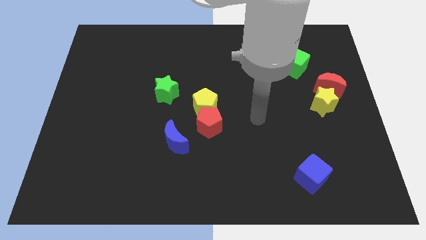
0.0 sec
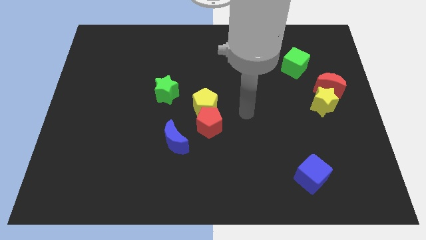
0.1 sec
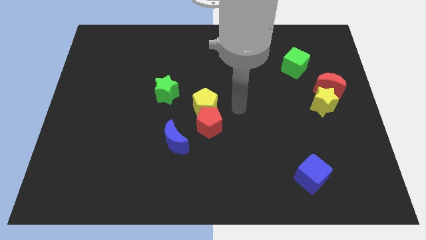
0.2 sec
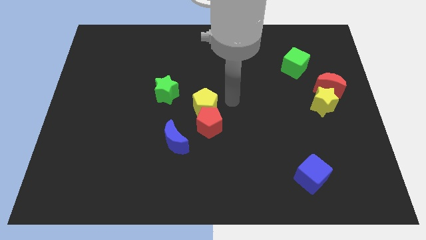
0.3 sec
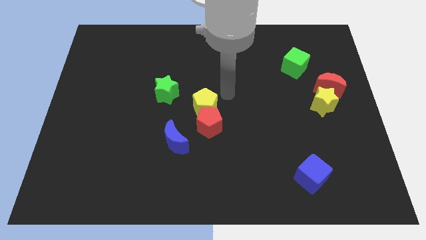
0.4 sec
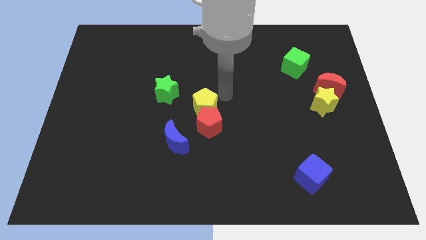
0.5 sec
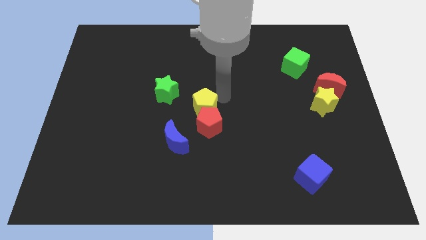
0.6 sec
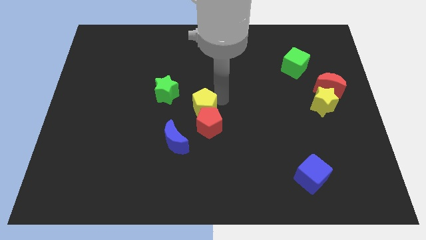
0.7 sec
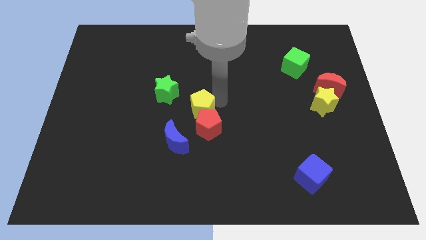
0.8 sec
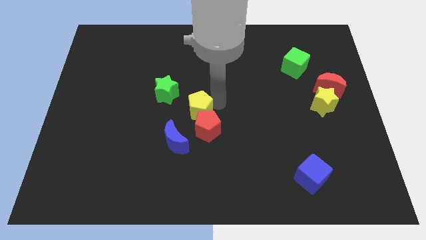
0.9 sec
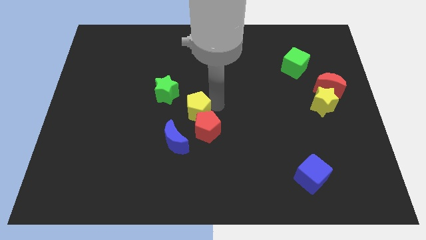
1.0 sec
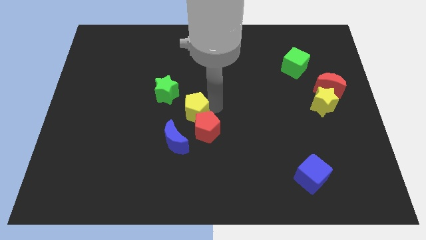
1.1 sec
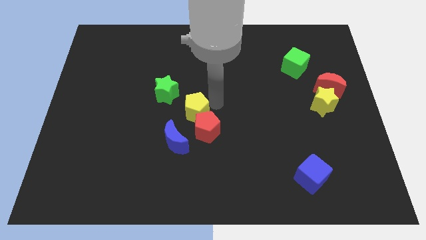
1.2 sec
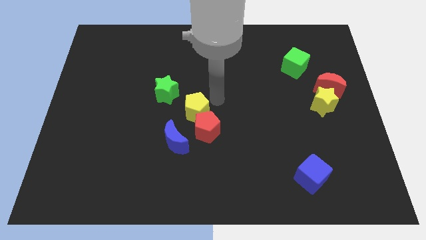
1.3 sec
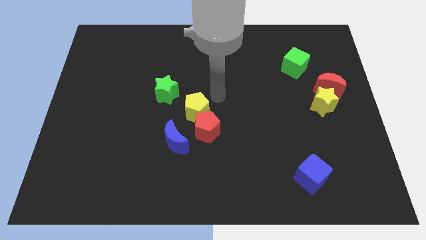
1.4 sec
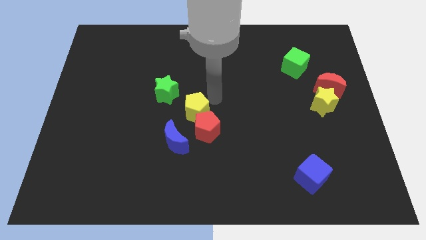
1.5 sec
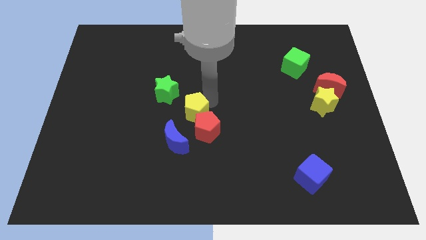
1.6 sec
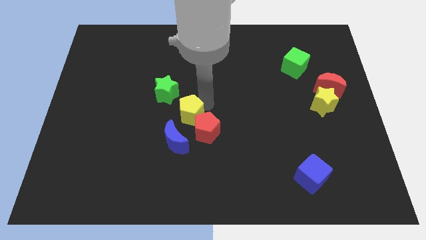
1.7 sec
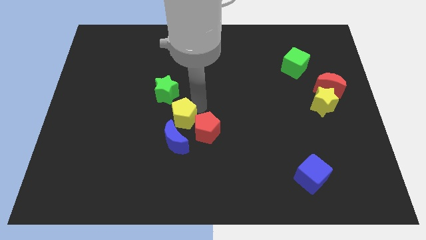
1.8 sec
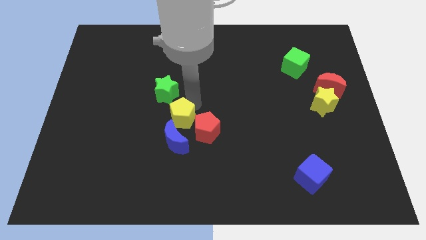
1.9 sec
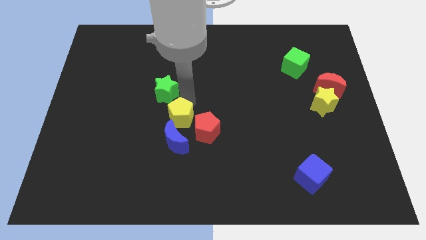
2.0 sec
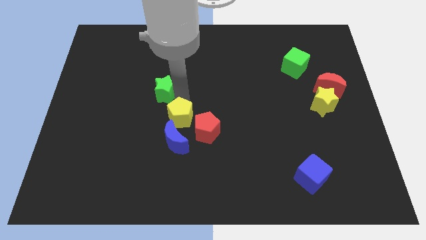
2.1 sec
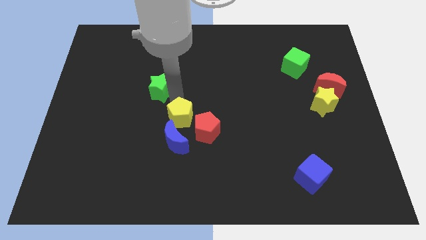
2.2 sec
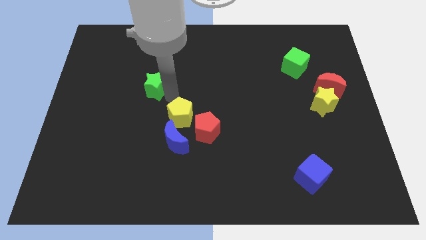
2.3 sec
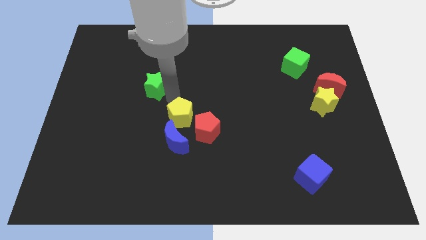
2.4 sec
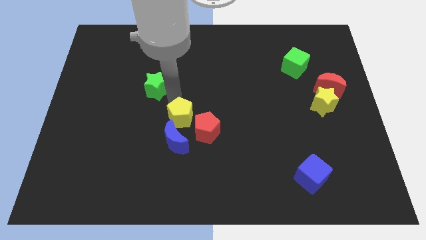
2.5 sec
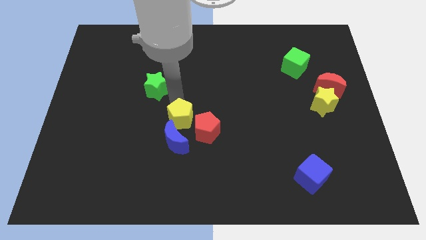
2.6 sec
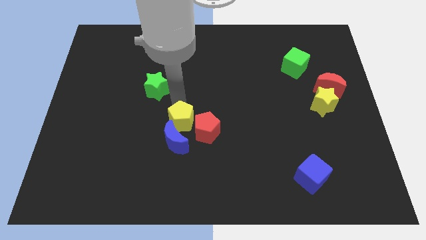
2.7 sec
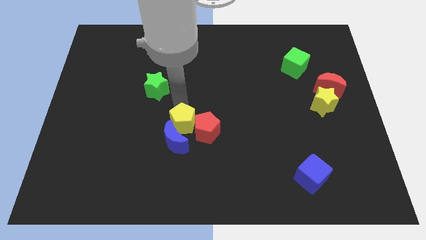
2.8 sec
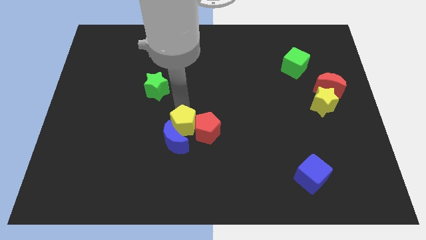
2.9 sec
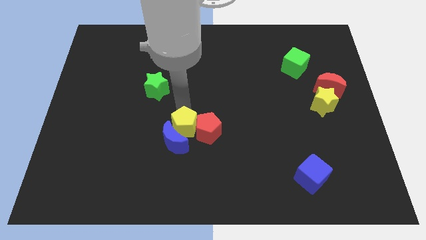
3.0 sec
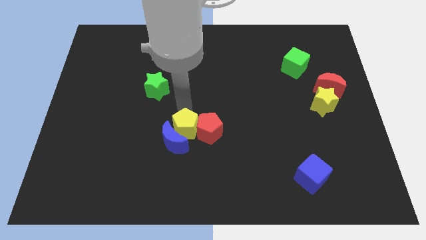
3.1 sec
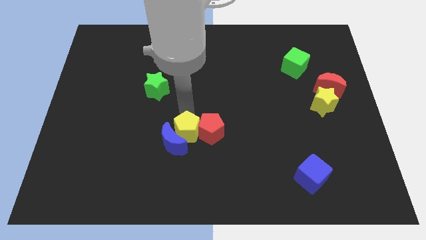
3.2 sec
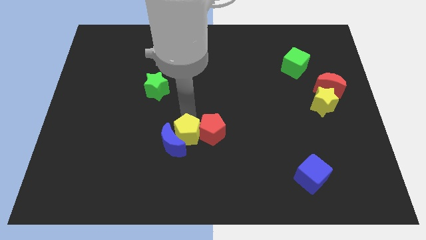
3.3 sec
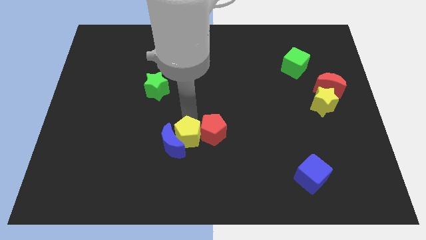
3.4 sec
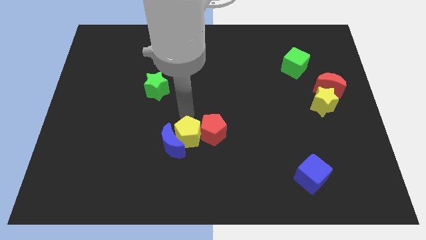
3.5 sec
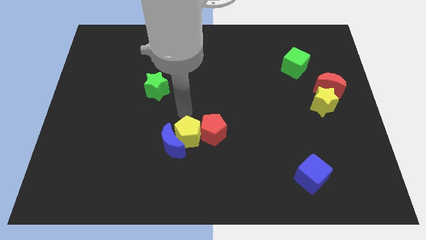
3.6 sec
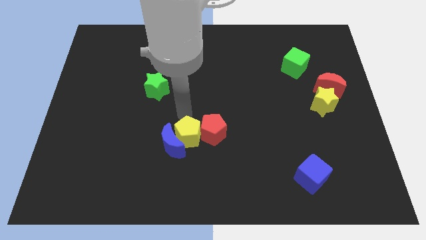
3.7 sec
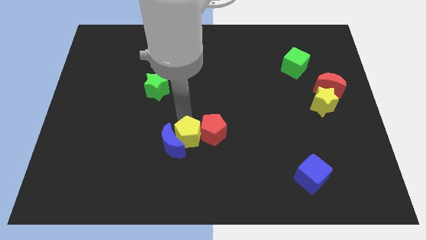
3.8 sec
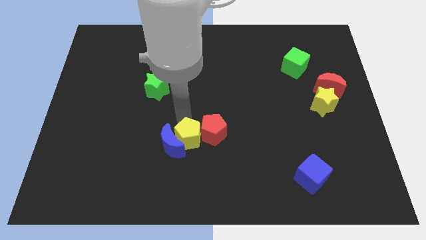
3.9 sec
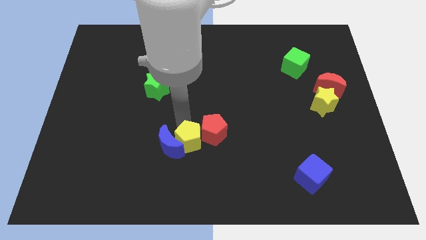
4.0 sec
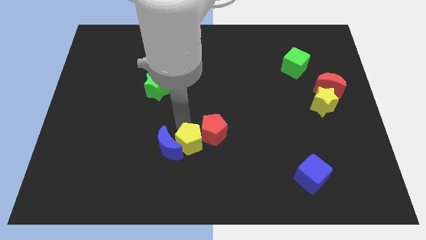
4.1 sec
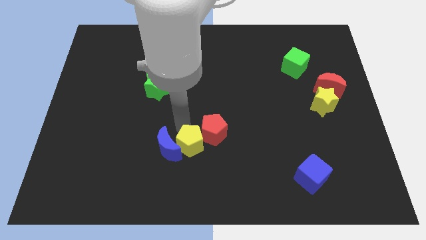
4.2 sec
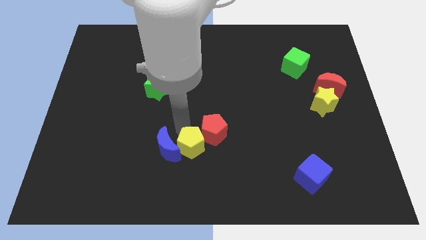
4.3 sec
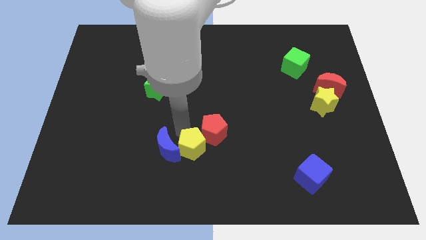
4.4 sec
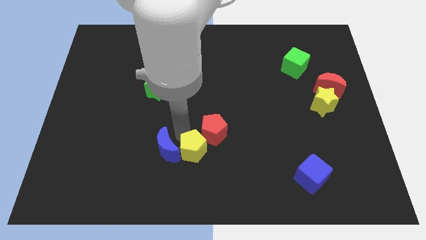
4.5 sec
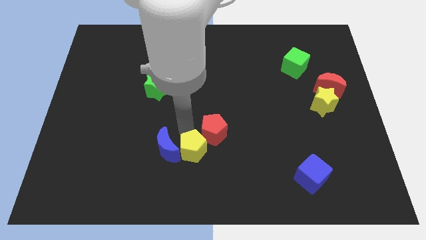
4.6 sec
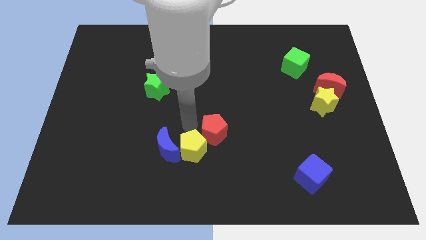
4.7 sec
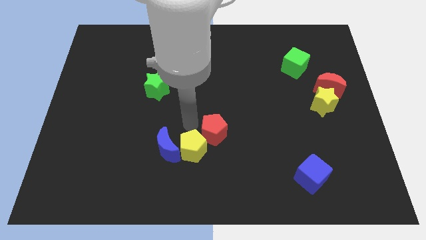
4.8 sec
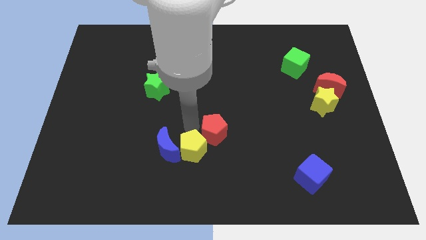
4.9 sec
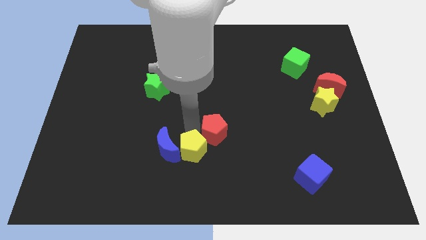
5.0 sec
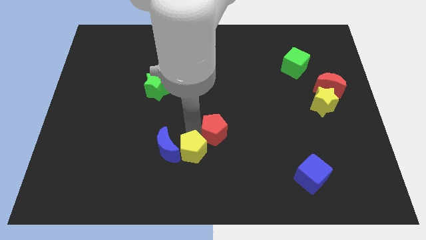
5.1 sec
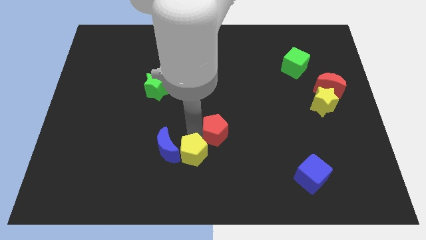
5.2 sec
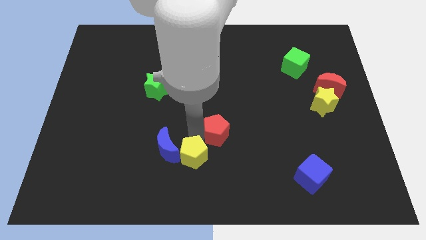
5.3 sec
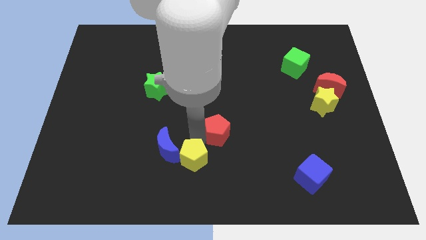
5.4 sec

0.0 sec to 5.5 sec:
put the yellow pentagon to the bottom

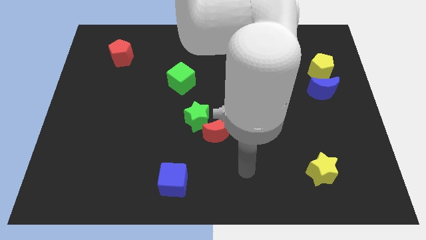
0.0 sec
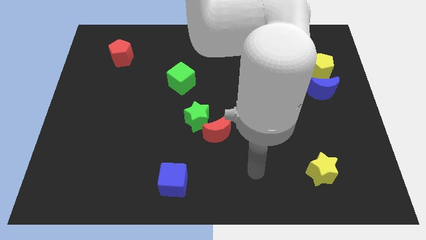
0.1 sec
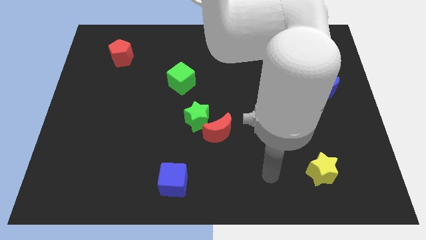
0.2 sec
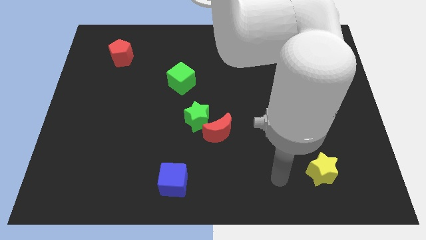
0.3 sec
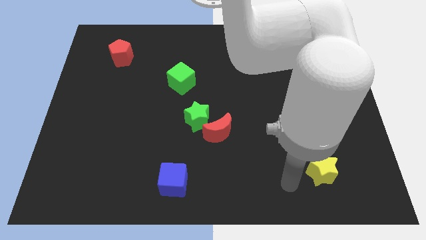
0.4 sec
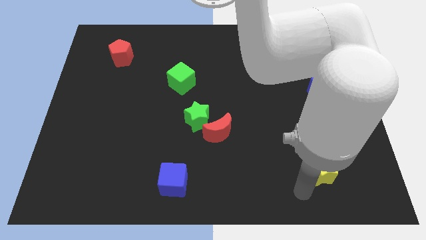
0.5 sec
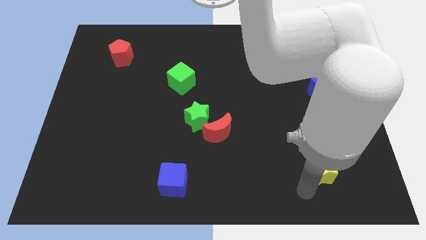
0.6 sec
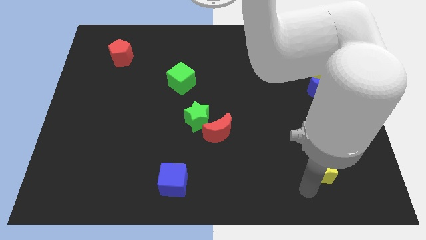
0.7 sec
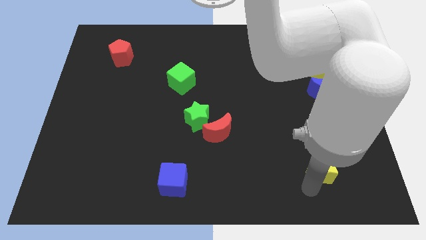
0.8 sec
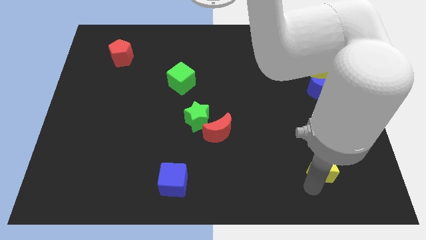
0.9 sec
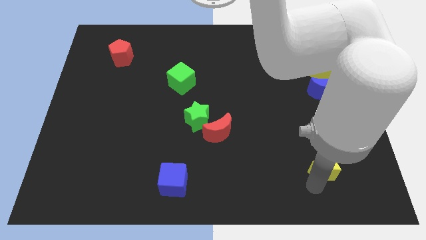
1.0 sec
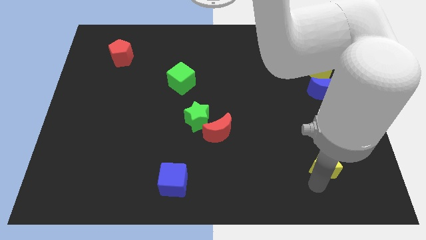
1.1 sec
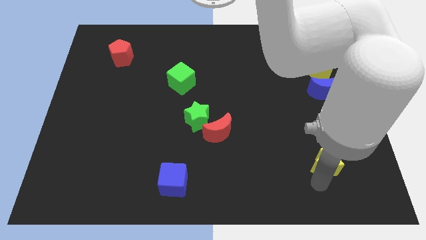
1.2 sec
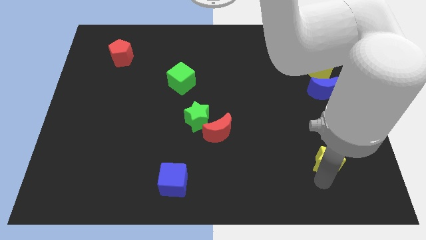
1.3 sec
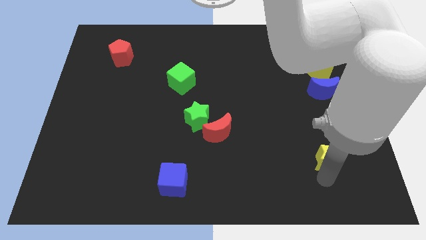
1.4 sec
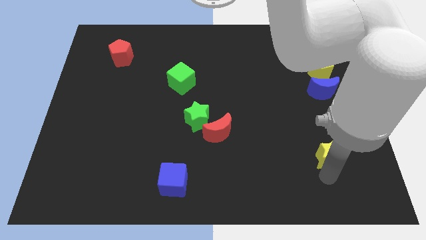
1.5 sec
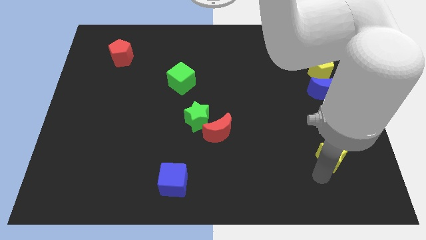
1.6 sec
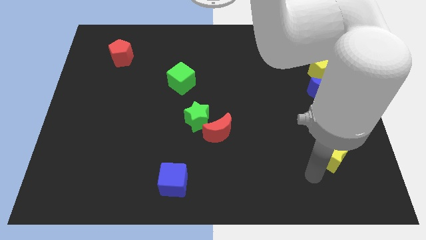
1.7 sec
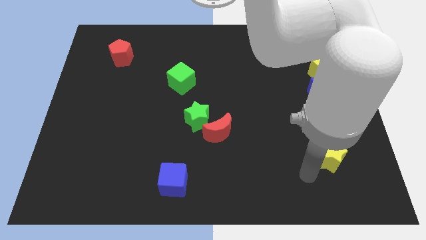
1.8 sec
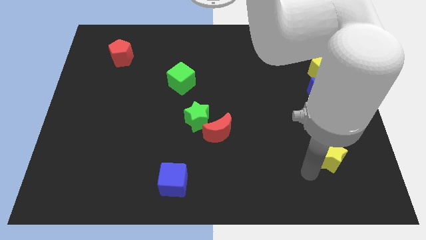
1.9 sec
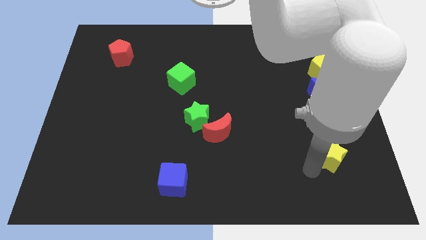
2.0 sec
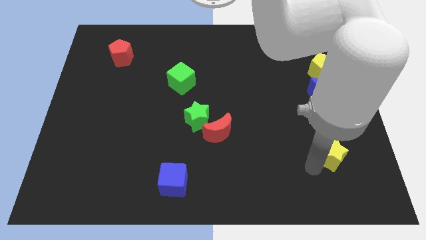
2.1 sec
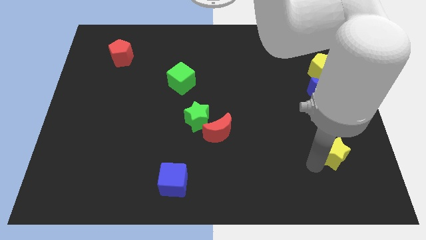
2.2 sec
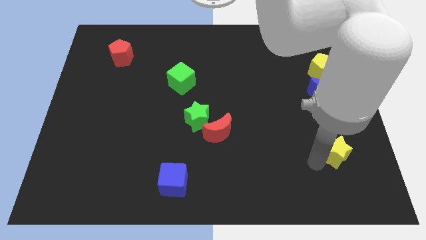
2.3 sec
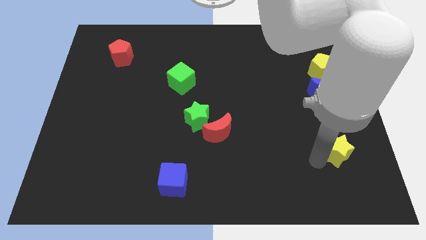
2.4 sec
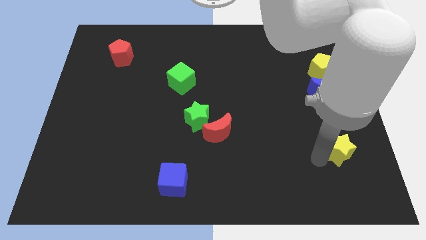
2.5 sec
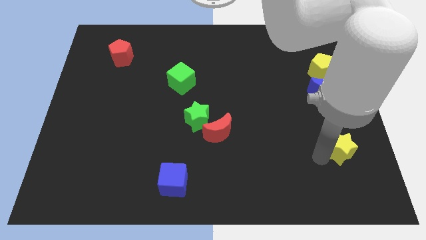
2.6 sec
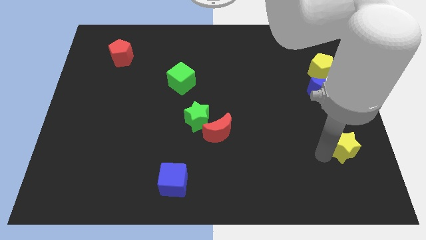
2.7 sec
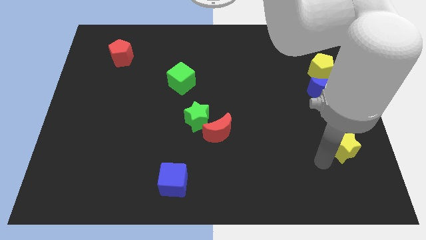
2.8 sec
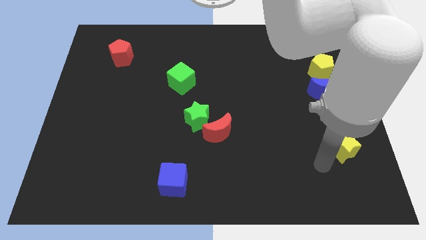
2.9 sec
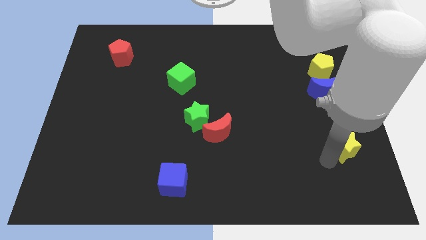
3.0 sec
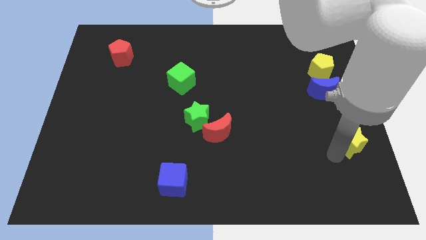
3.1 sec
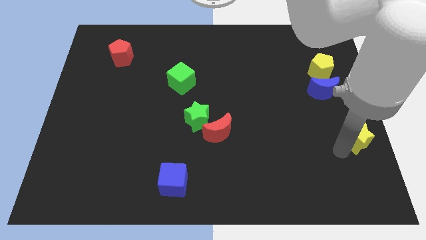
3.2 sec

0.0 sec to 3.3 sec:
push the yellow star to the right side
